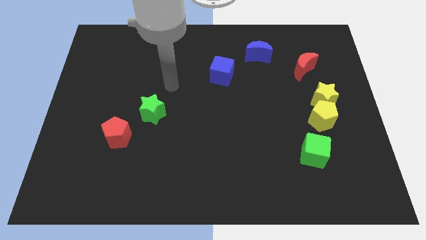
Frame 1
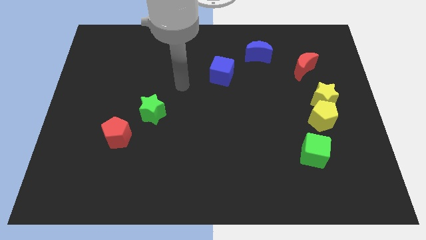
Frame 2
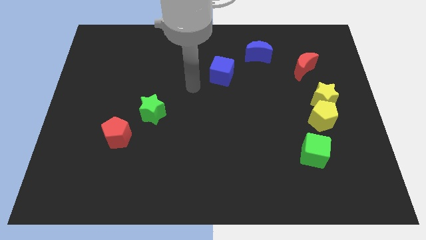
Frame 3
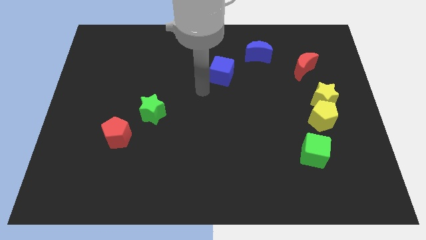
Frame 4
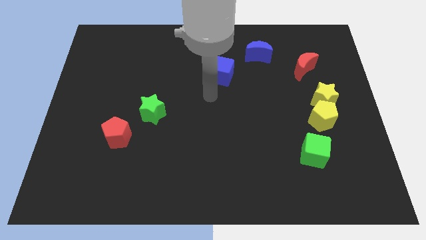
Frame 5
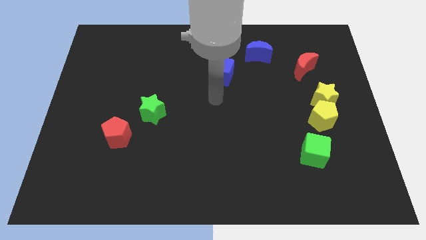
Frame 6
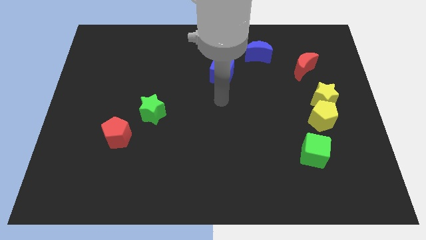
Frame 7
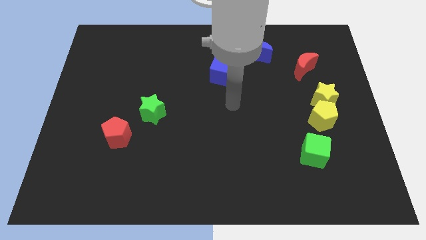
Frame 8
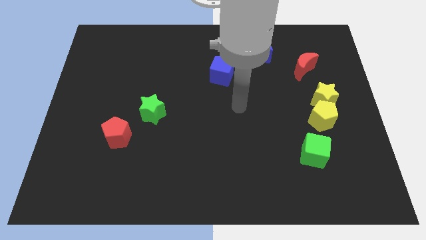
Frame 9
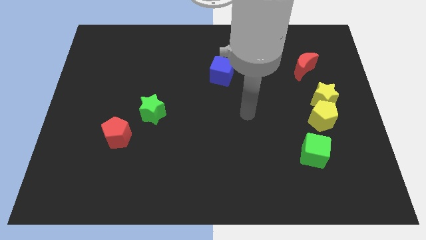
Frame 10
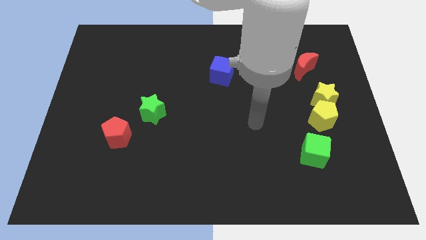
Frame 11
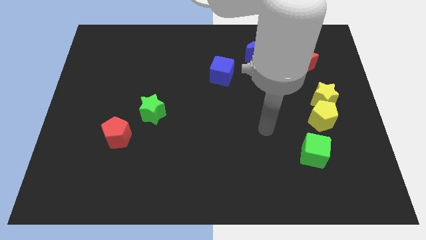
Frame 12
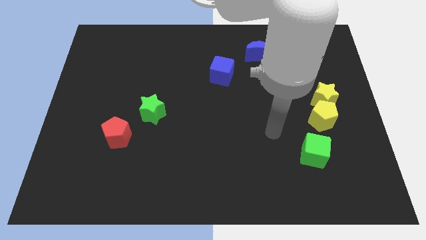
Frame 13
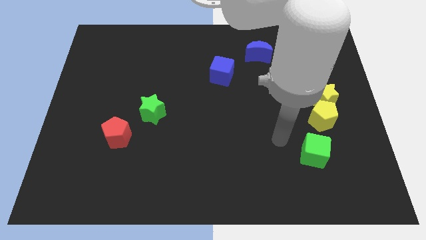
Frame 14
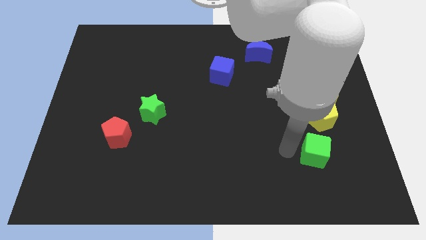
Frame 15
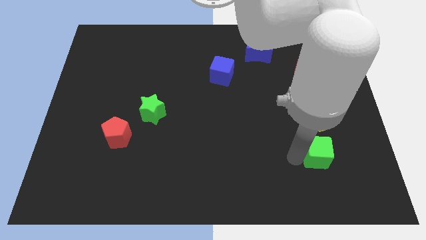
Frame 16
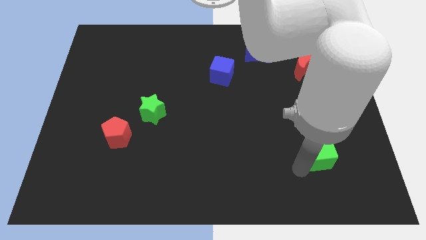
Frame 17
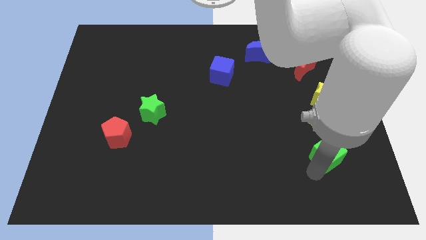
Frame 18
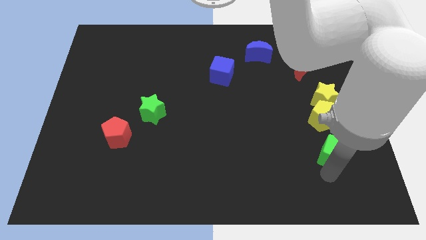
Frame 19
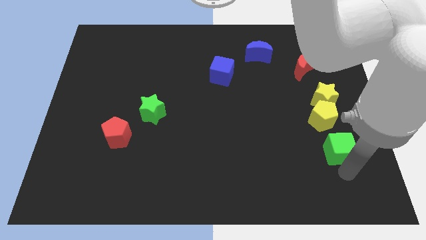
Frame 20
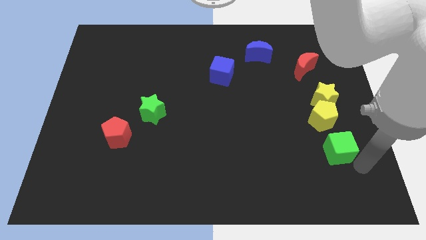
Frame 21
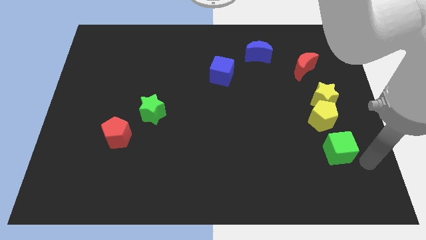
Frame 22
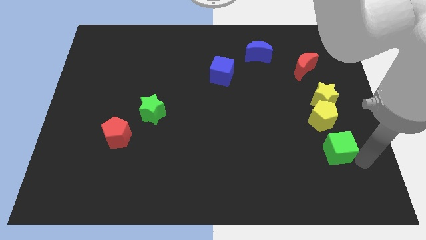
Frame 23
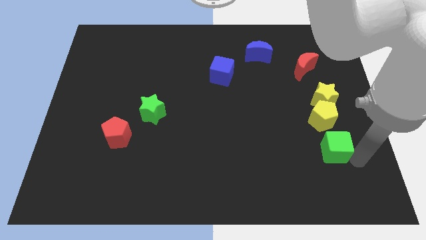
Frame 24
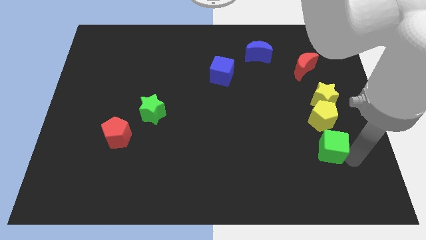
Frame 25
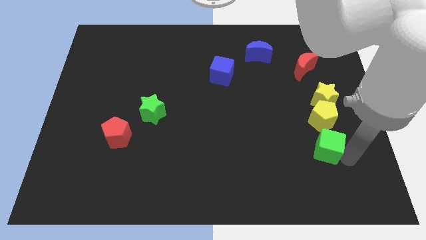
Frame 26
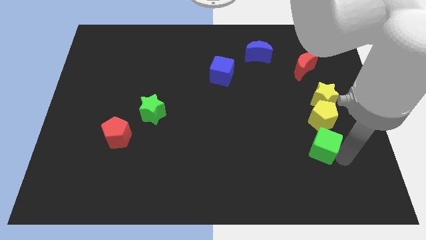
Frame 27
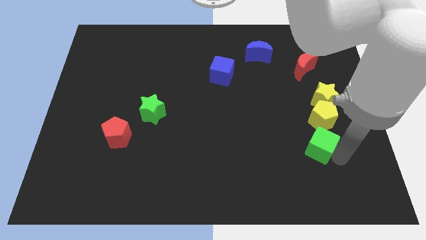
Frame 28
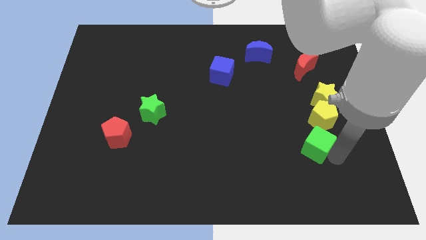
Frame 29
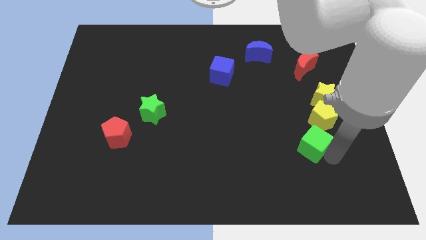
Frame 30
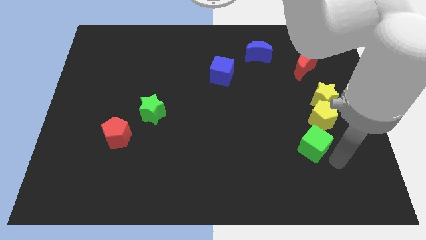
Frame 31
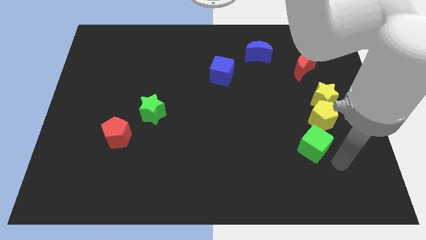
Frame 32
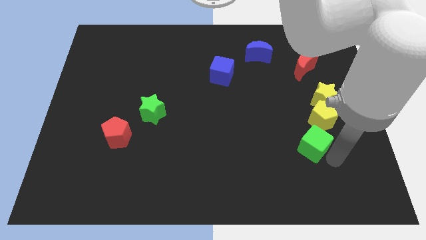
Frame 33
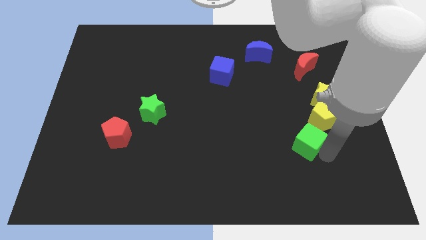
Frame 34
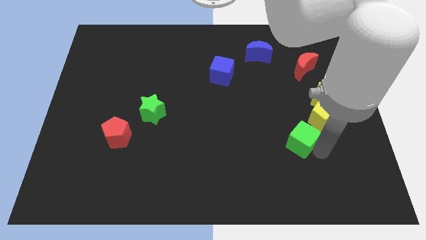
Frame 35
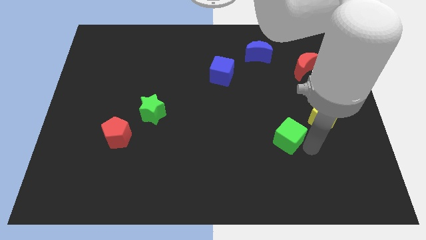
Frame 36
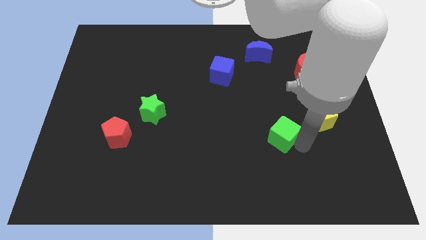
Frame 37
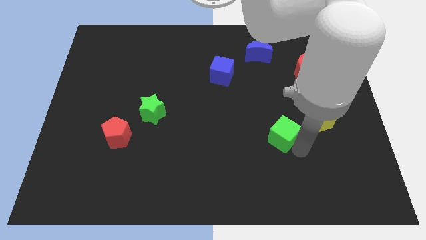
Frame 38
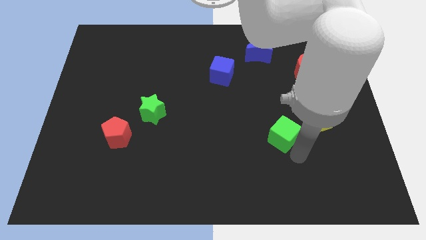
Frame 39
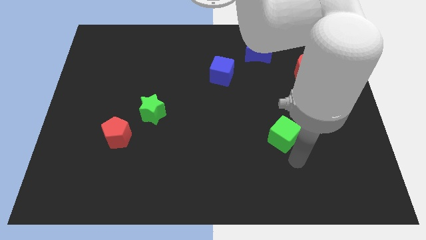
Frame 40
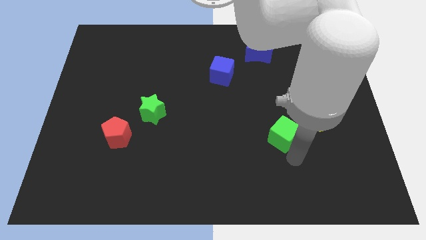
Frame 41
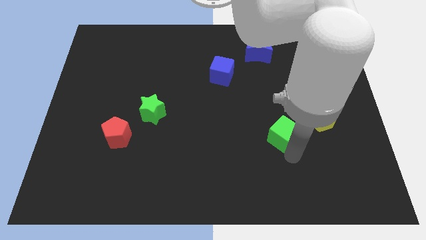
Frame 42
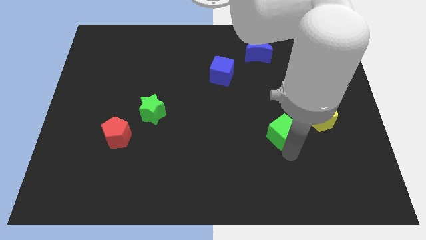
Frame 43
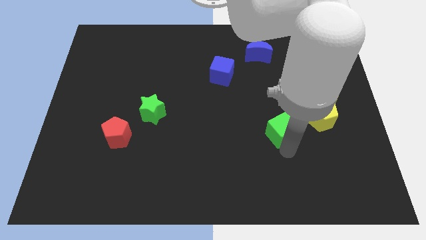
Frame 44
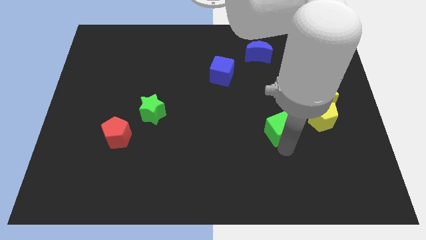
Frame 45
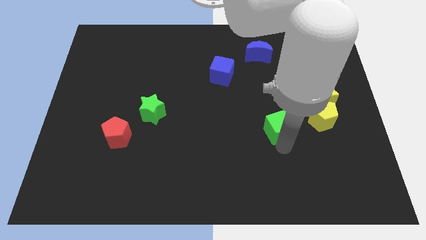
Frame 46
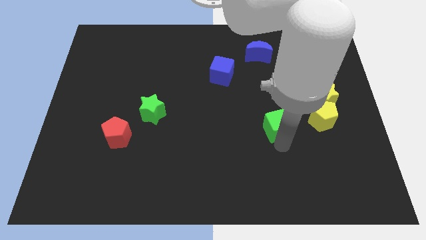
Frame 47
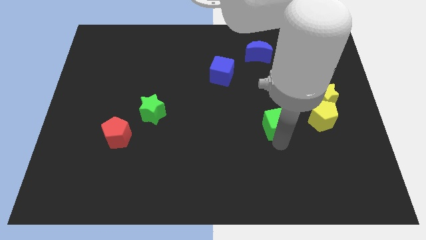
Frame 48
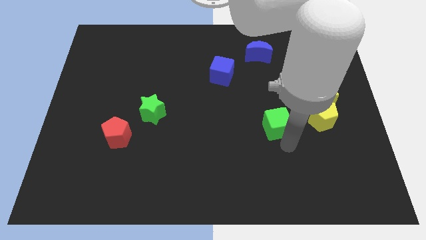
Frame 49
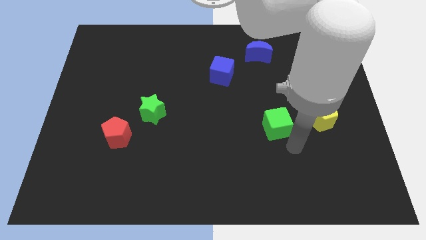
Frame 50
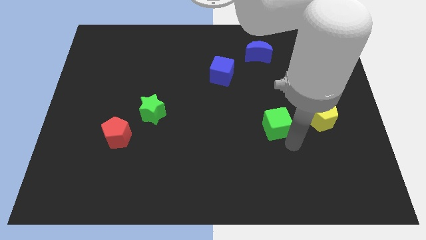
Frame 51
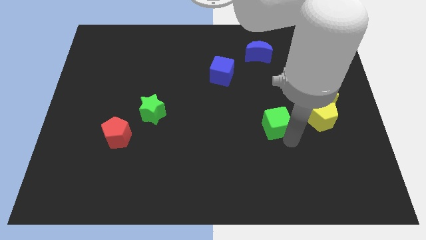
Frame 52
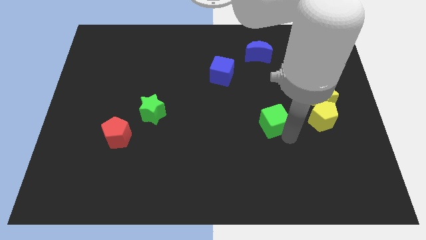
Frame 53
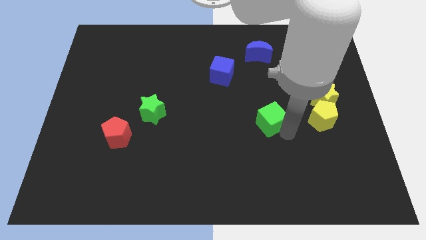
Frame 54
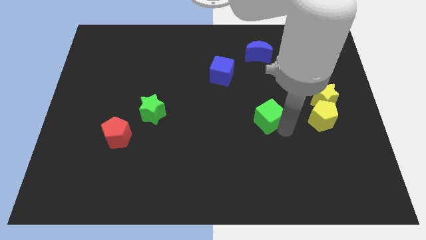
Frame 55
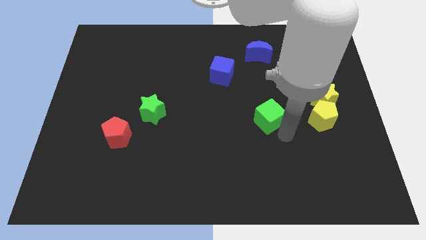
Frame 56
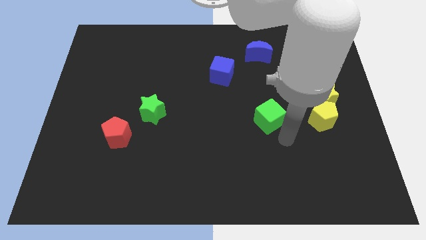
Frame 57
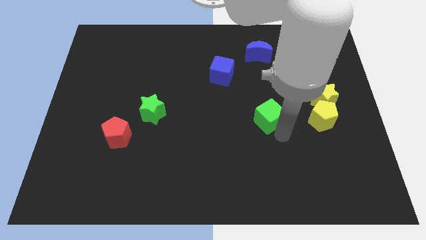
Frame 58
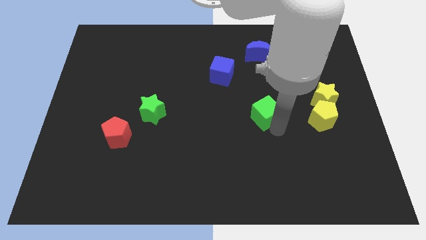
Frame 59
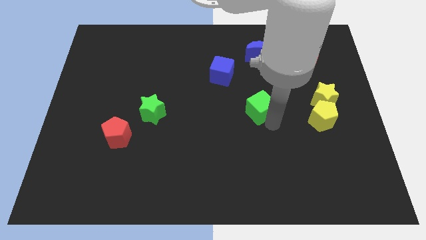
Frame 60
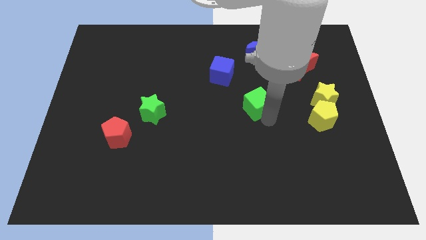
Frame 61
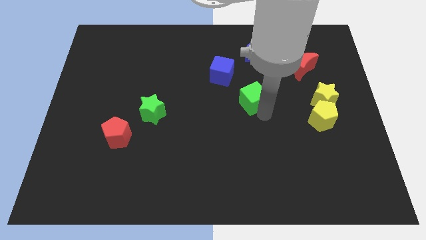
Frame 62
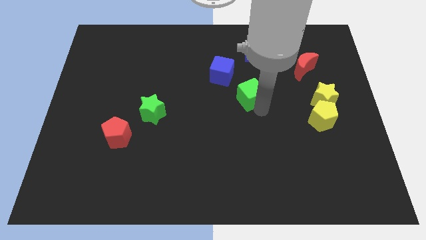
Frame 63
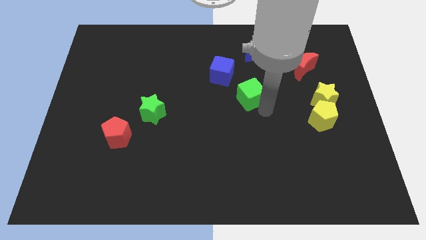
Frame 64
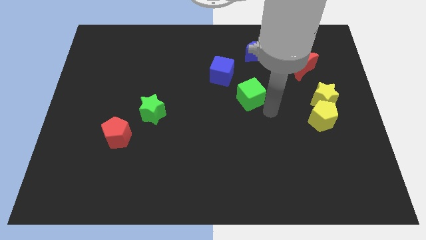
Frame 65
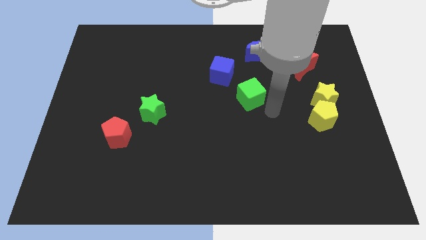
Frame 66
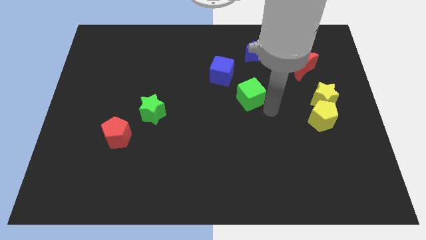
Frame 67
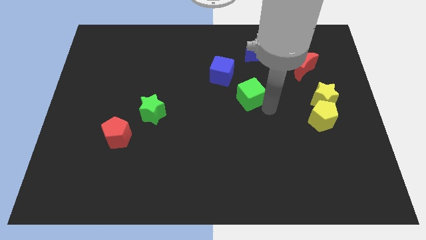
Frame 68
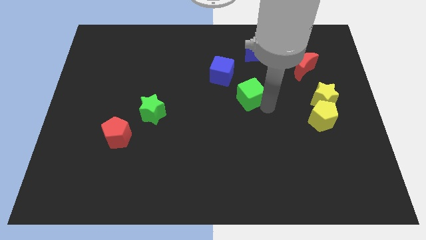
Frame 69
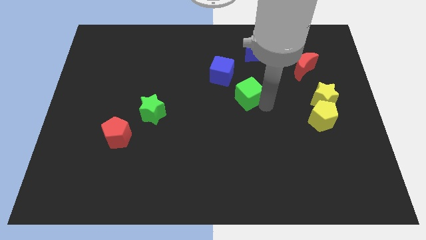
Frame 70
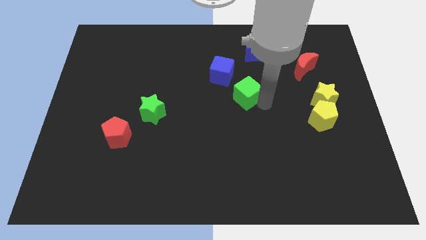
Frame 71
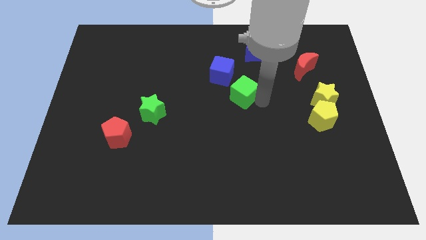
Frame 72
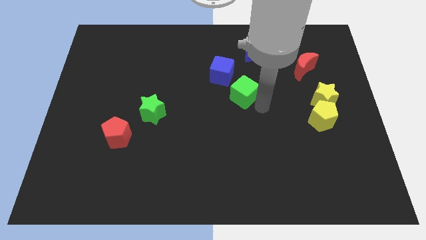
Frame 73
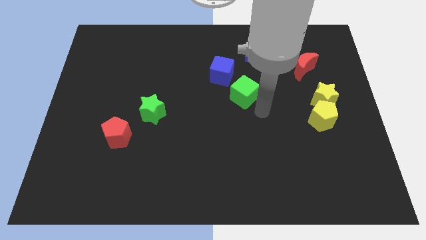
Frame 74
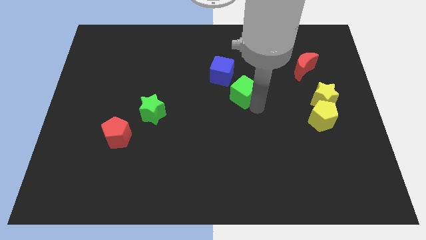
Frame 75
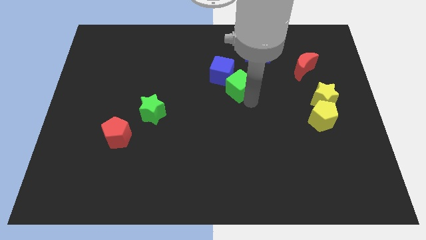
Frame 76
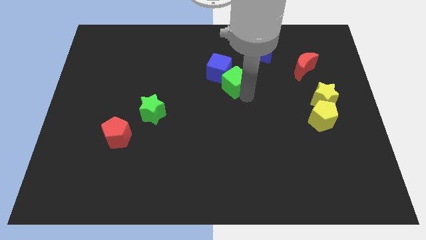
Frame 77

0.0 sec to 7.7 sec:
put the green cube next to the blue cube
